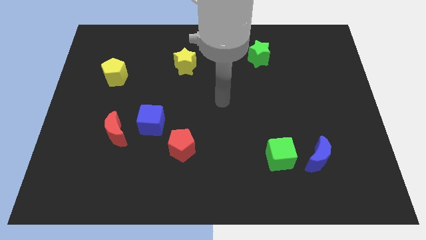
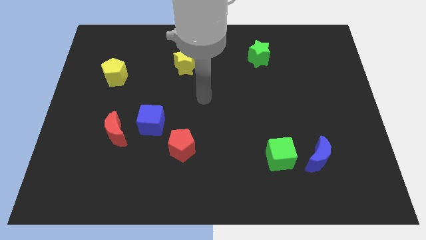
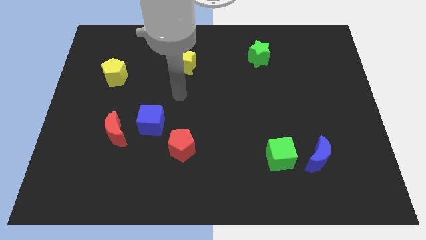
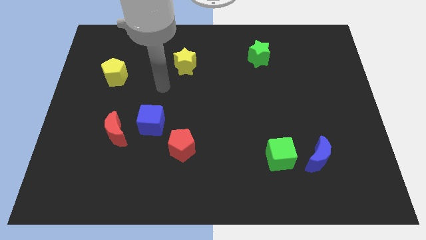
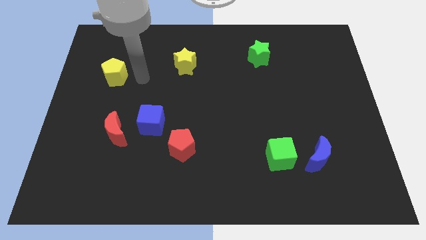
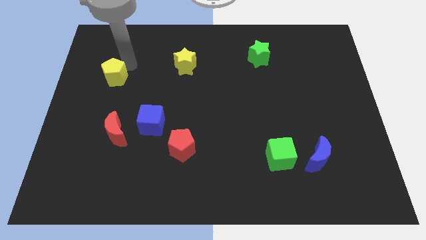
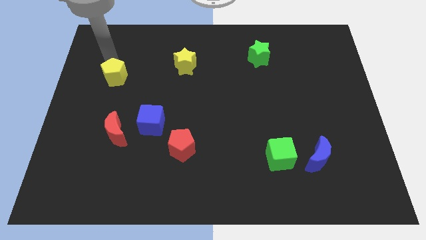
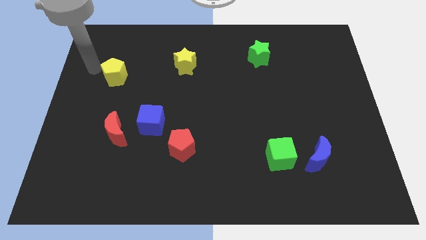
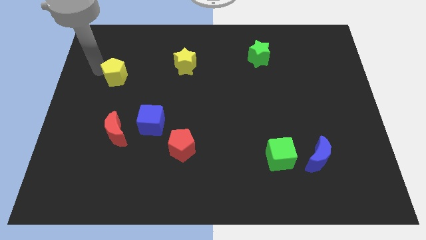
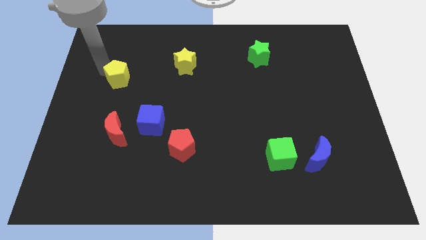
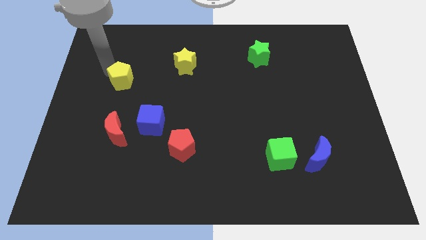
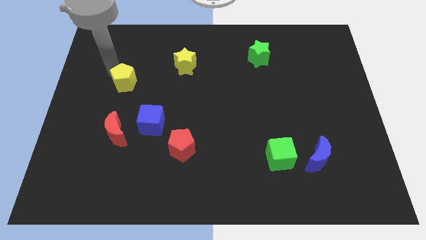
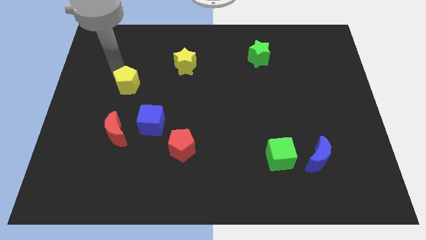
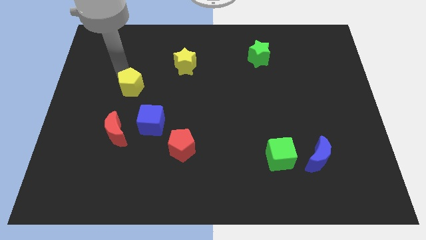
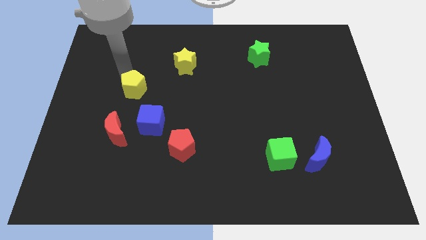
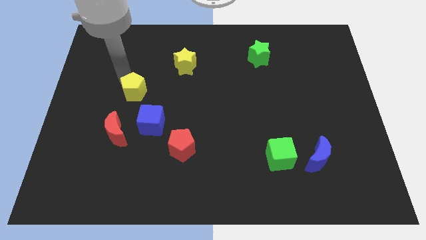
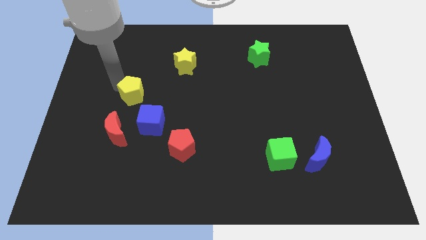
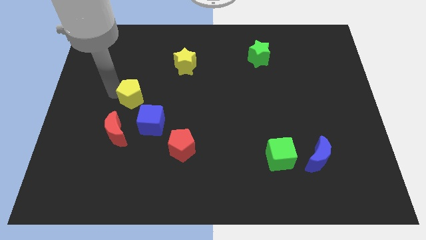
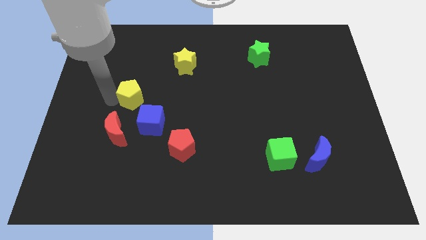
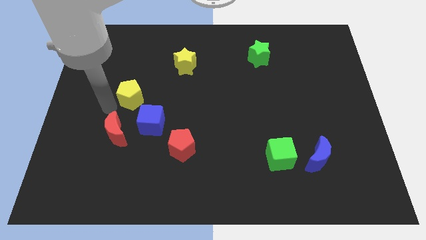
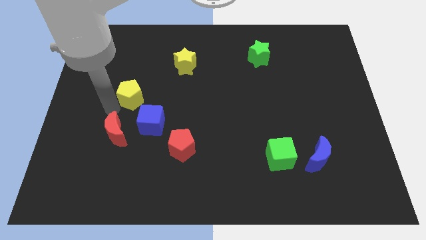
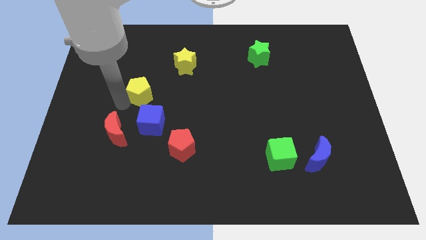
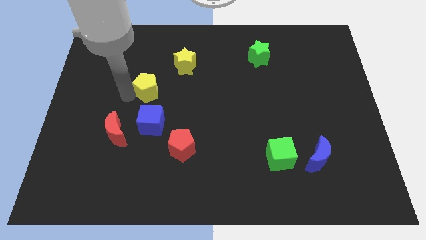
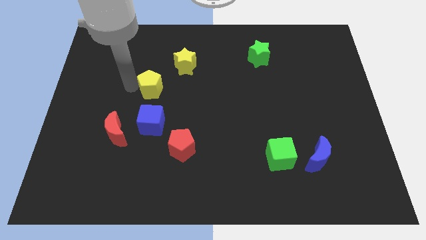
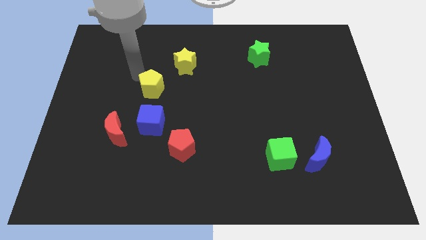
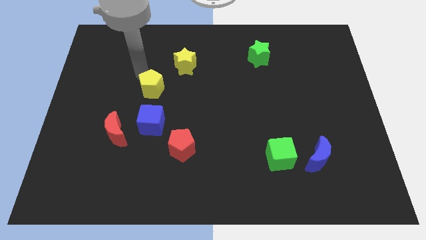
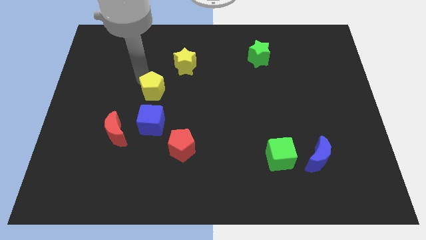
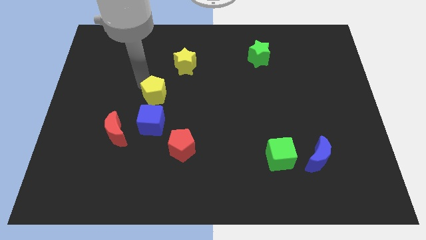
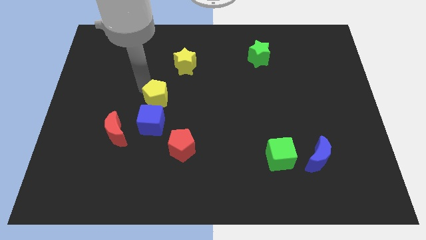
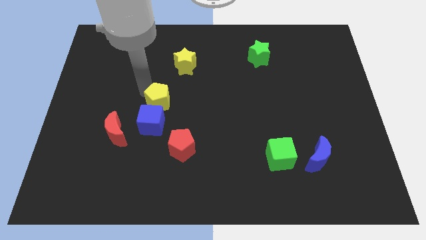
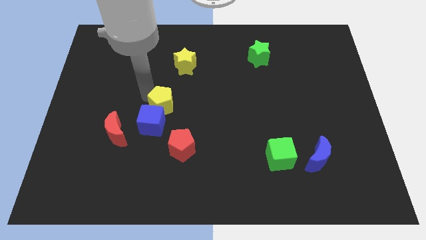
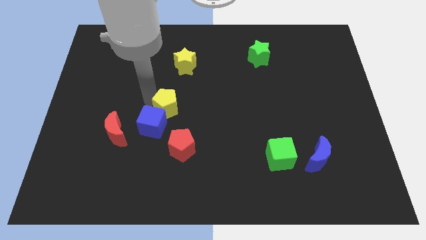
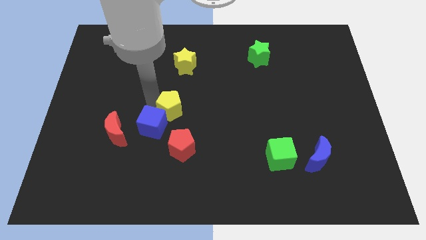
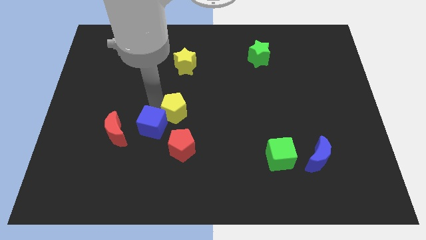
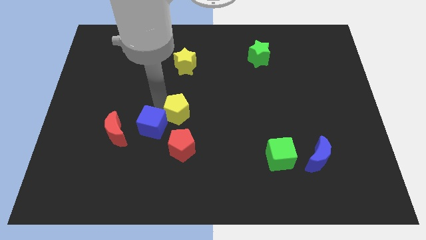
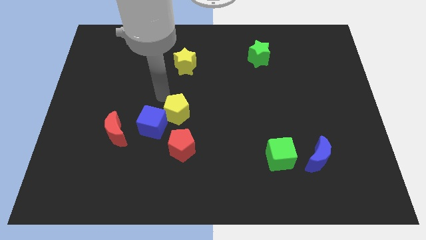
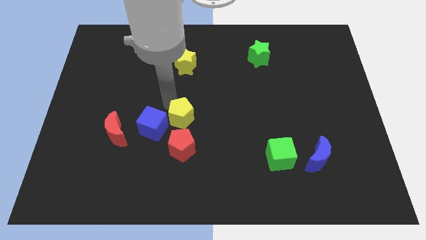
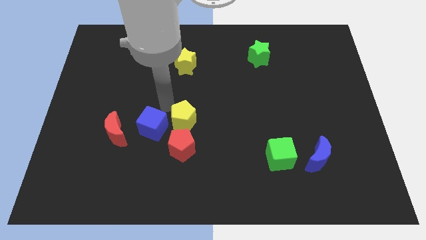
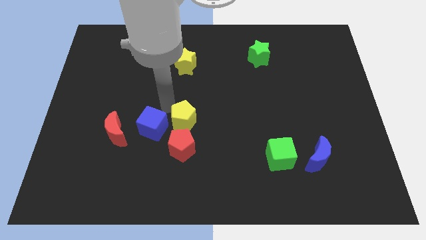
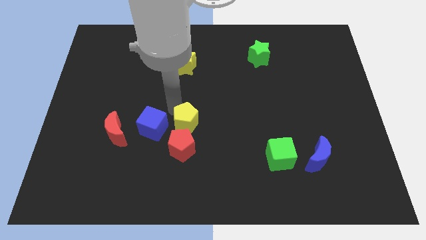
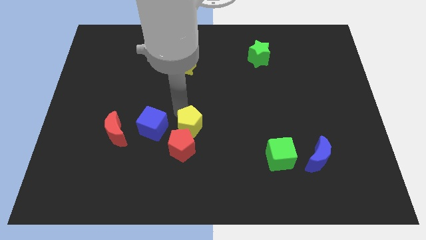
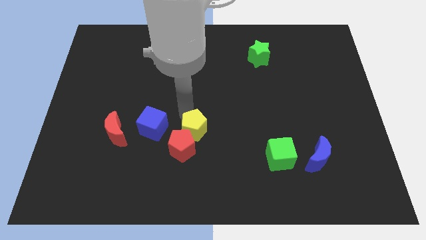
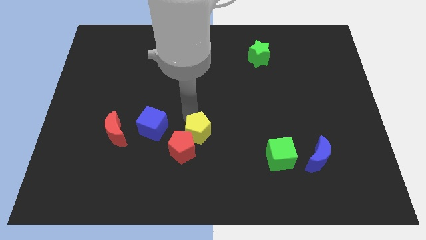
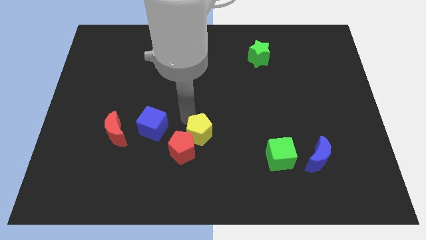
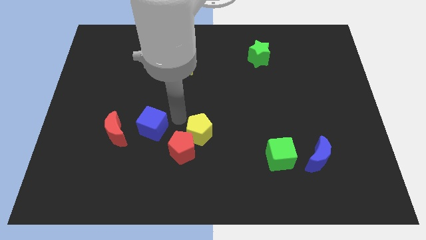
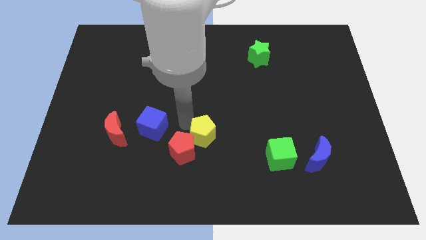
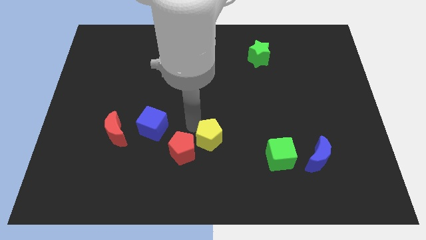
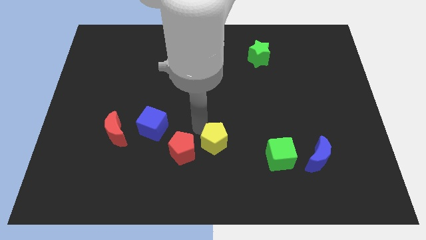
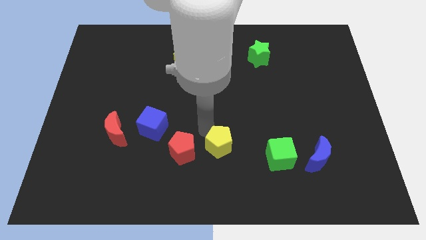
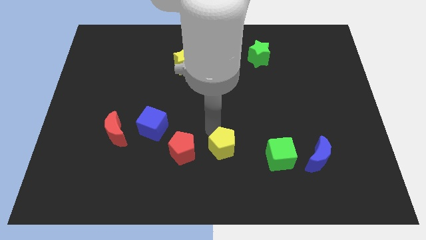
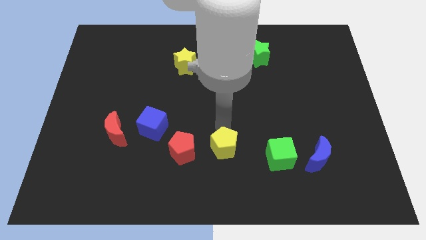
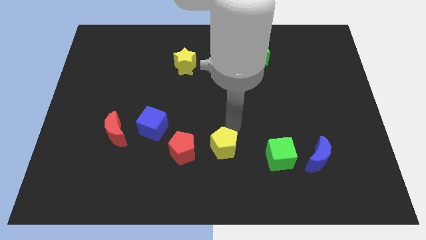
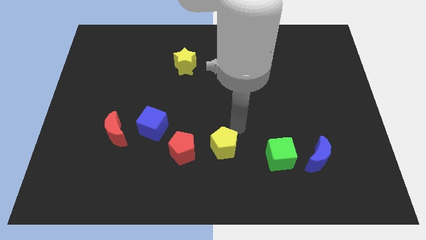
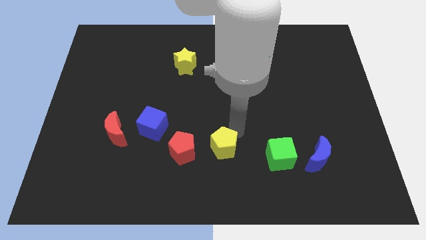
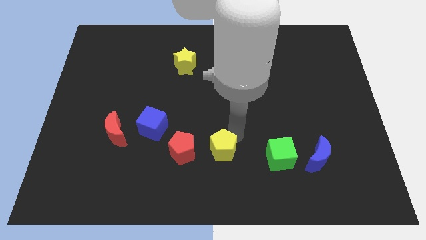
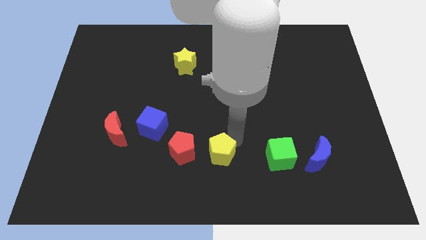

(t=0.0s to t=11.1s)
slide the yellow pentagon to the bottom

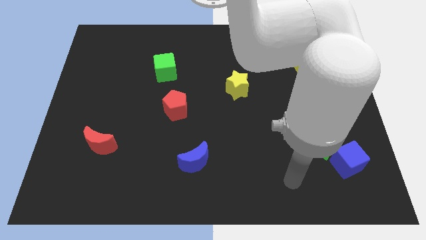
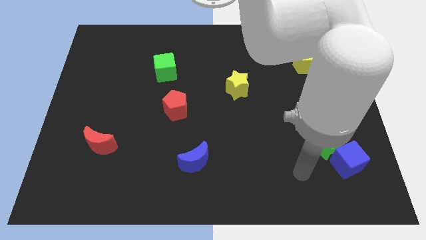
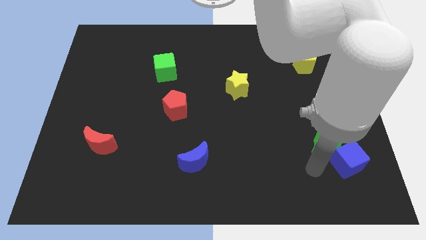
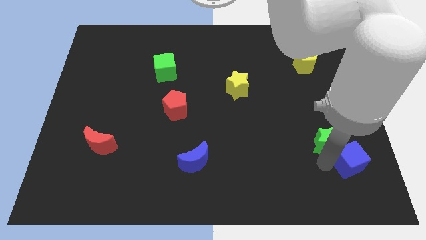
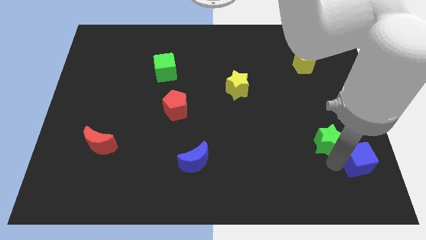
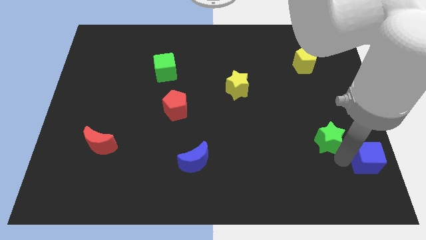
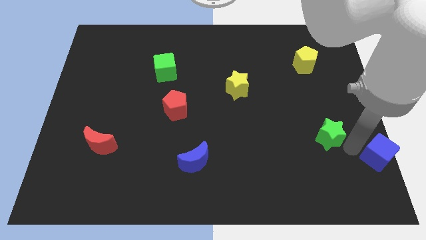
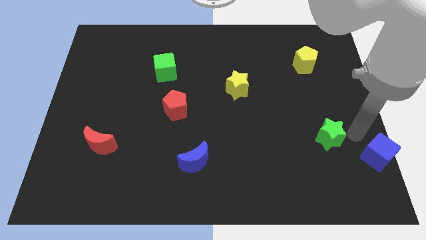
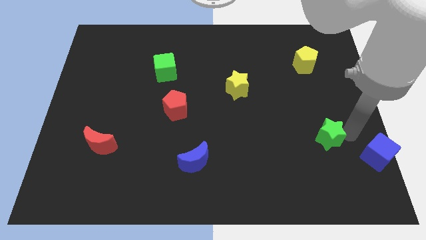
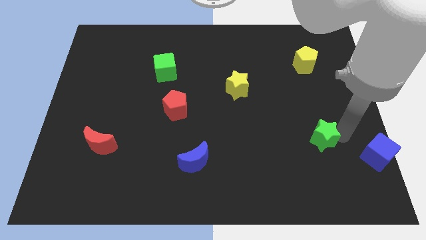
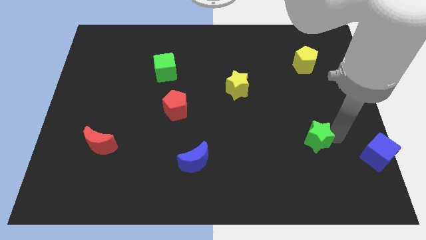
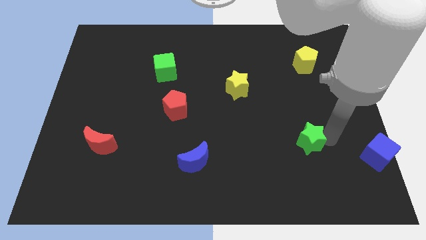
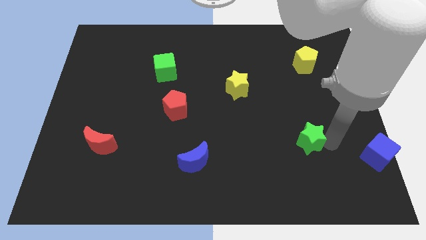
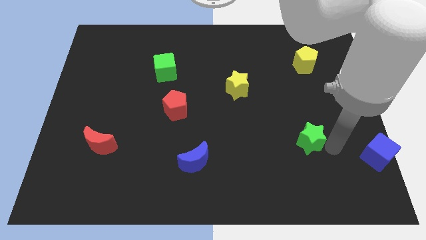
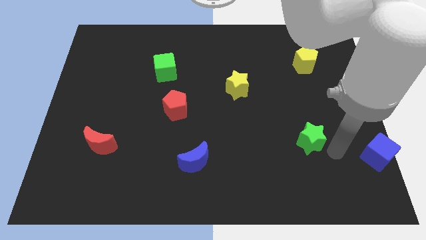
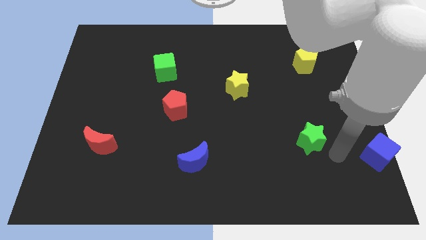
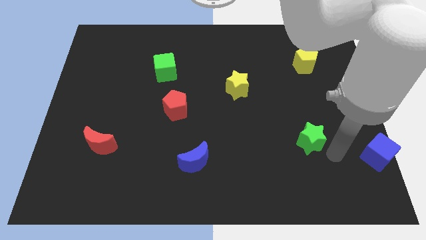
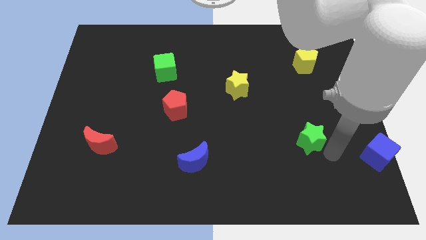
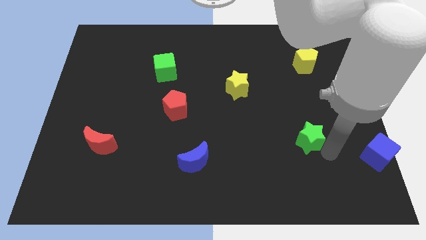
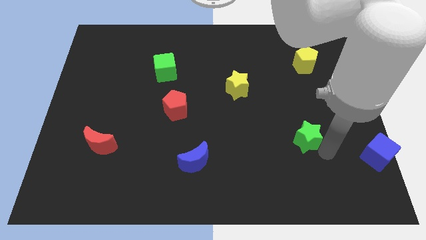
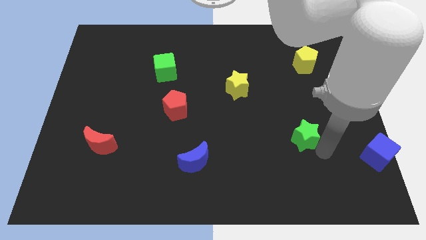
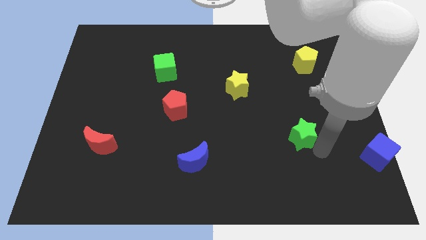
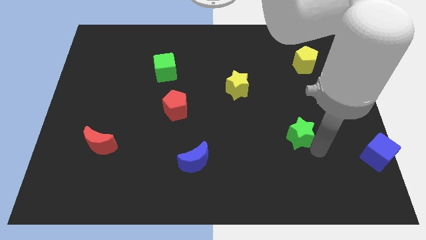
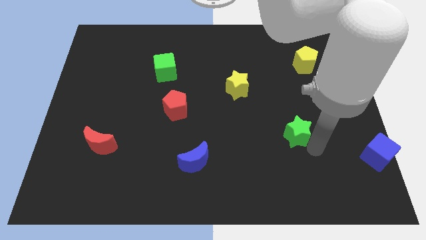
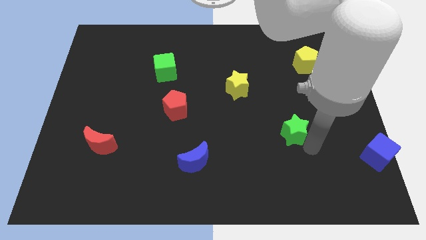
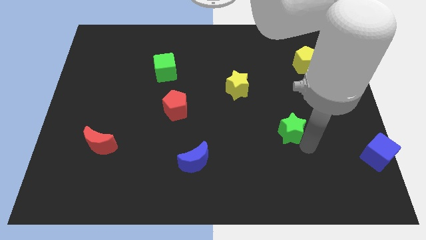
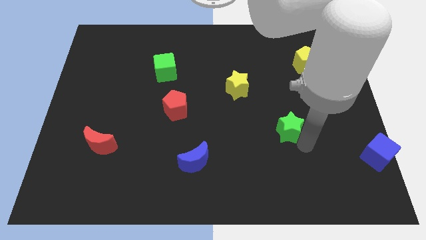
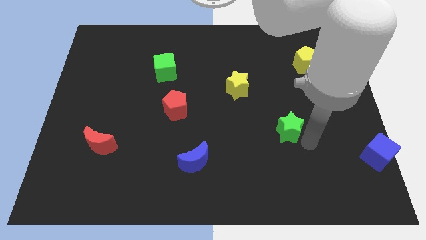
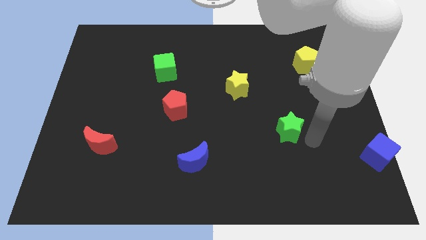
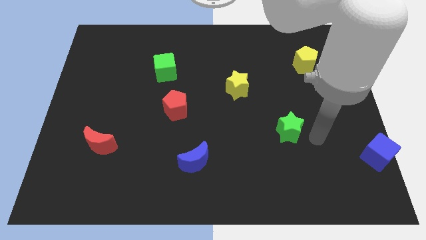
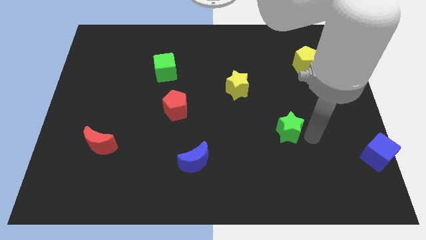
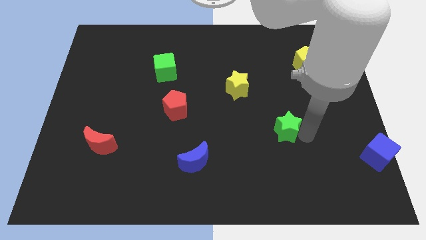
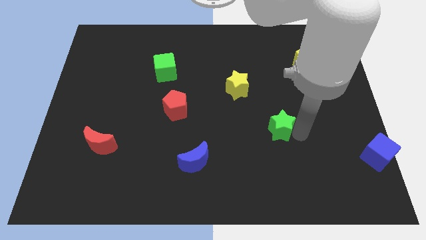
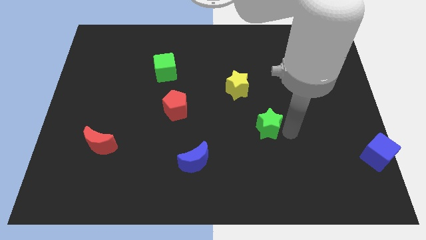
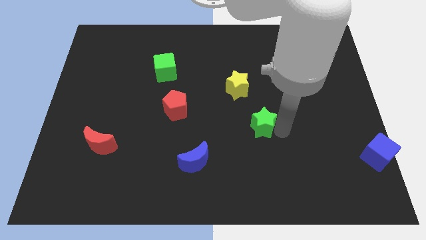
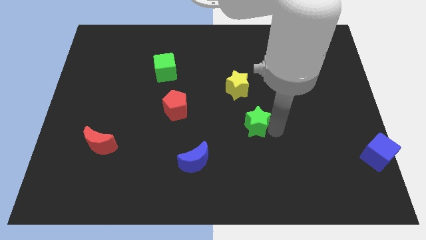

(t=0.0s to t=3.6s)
move the green star to the middle of the board
